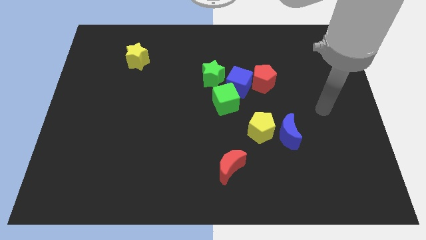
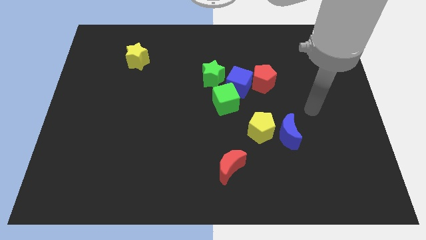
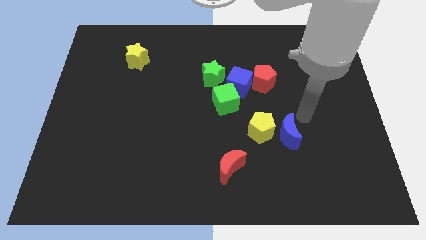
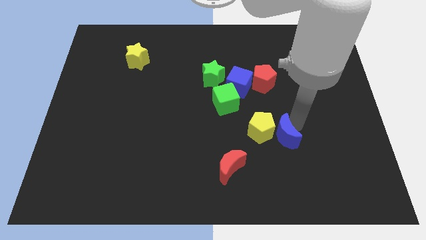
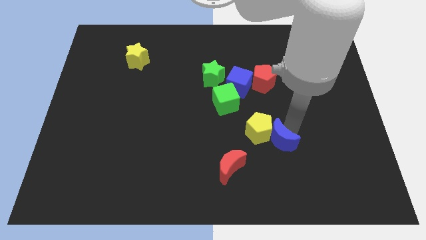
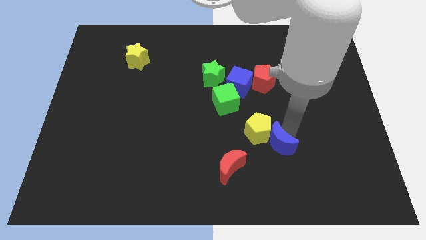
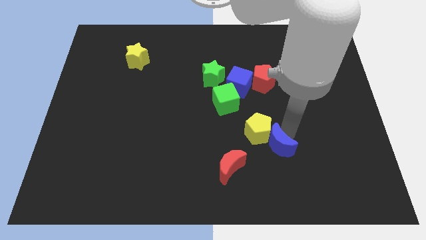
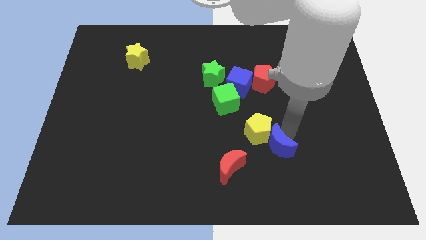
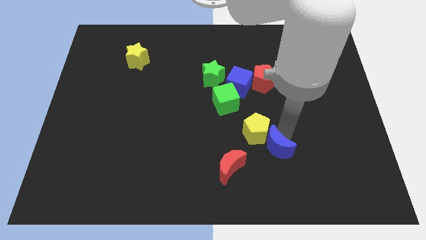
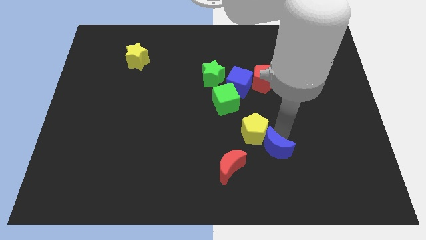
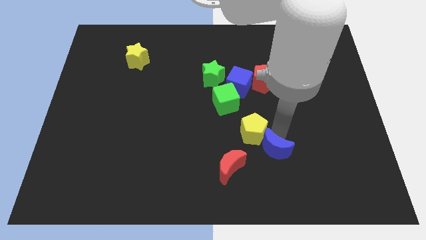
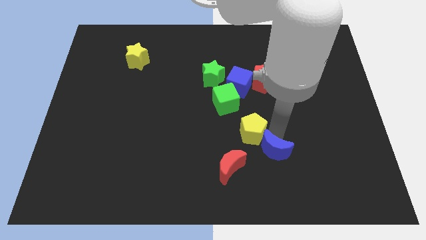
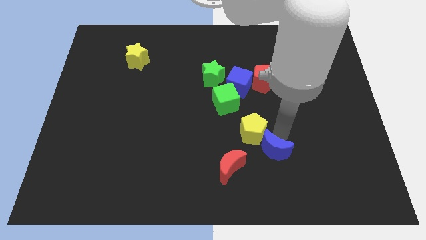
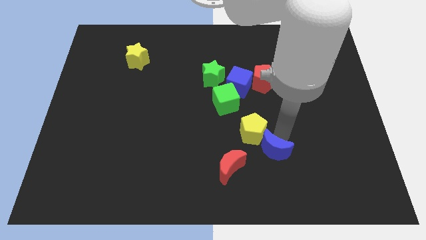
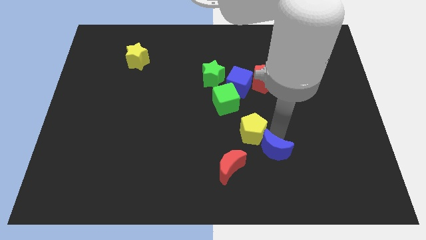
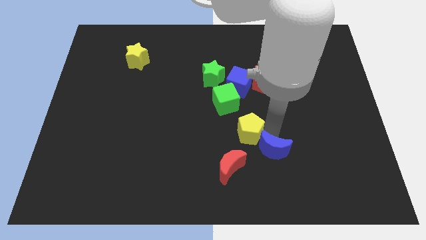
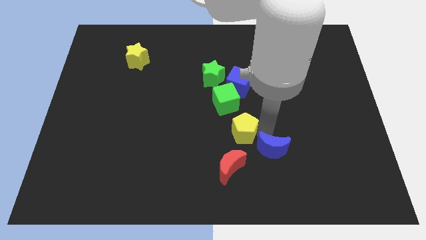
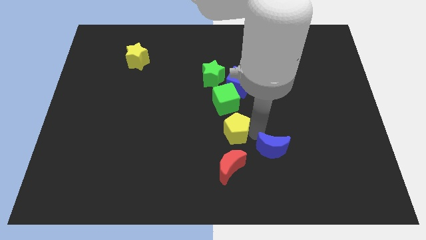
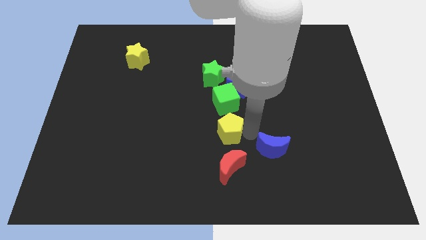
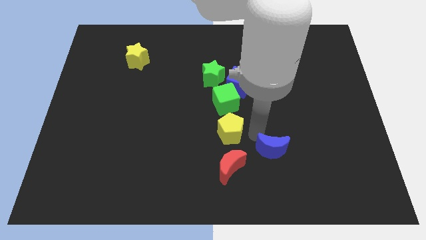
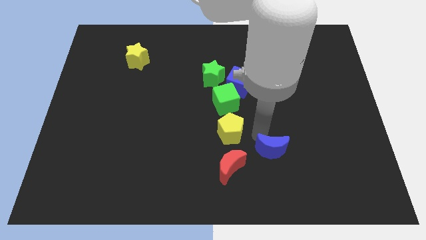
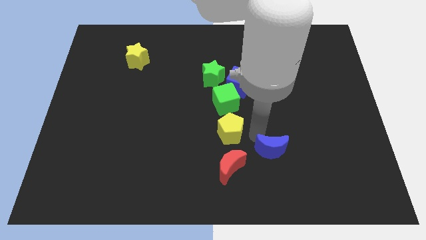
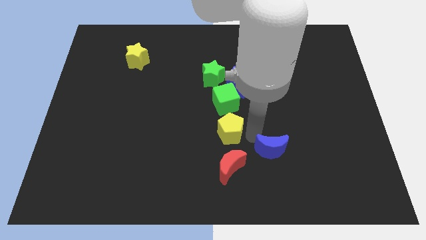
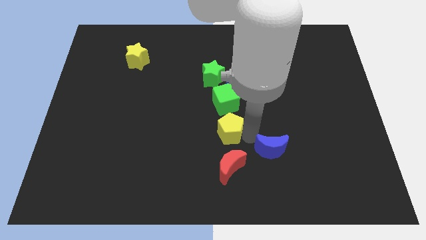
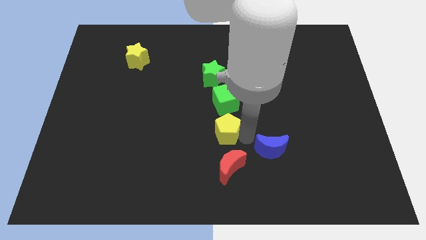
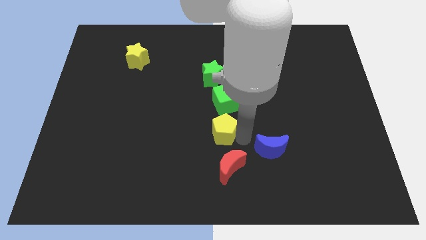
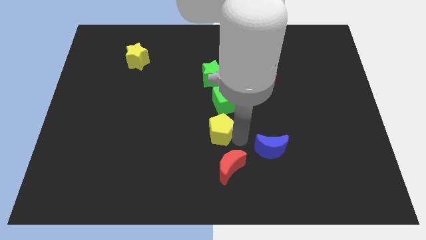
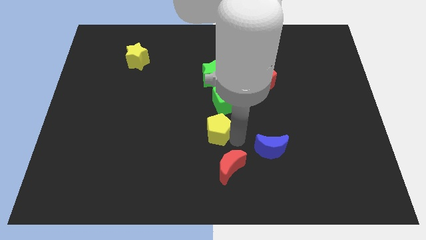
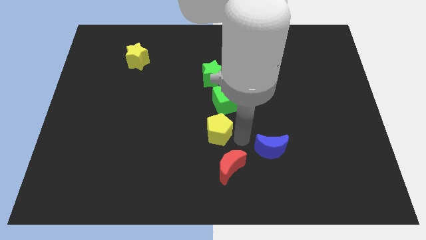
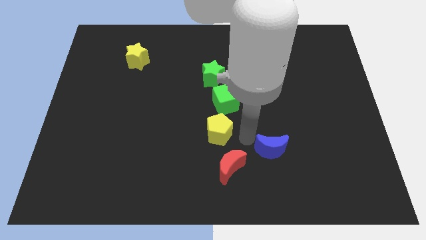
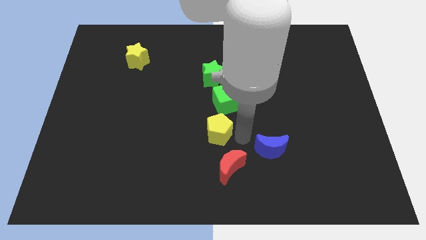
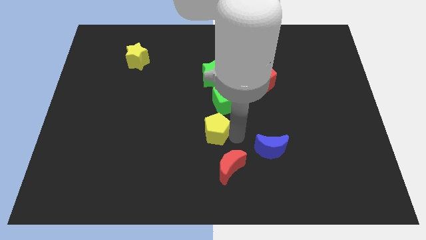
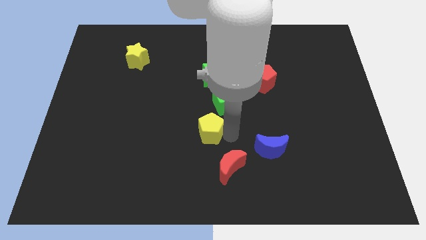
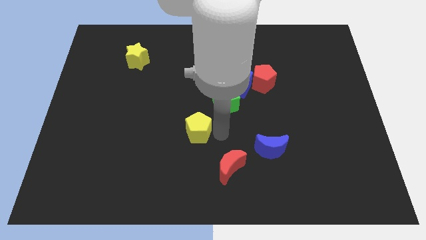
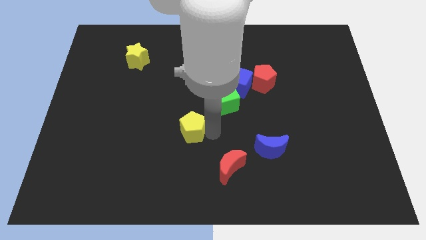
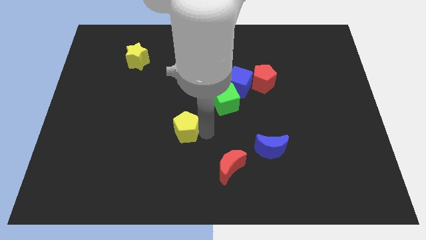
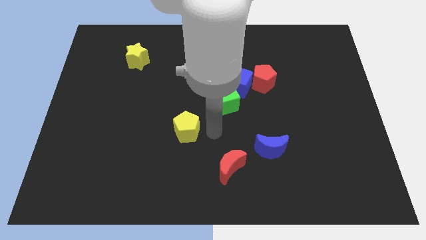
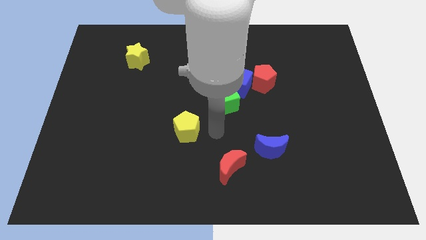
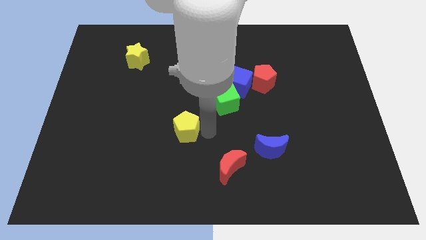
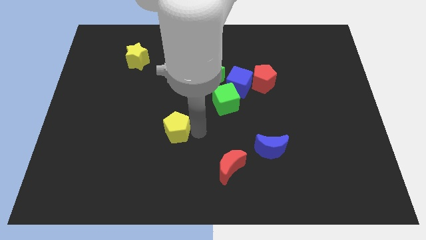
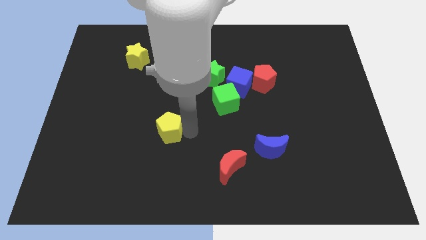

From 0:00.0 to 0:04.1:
move the yellow pentagon left

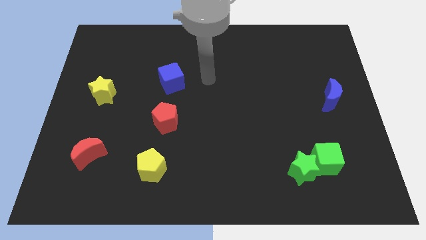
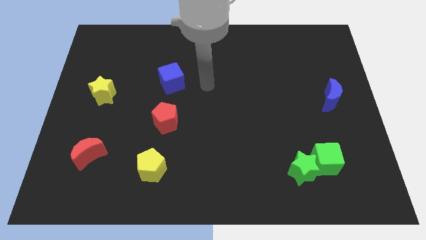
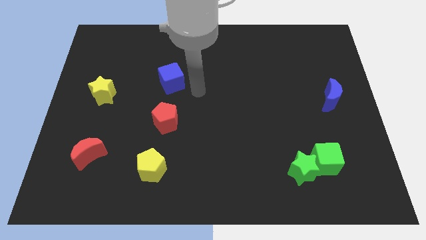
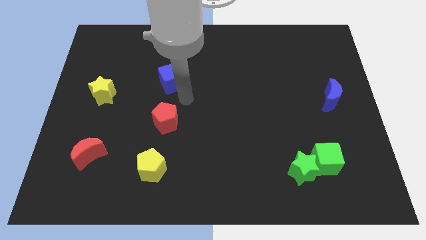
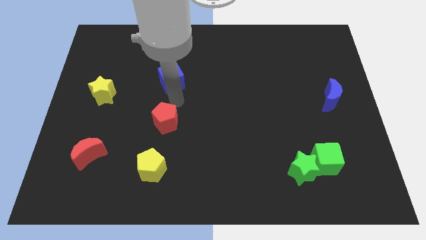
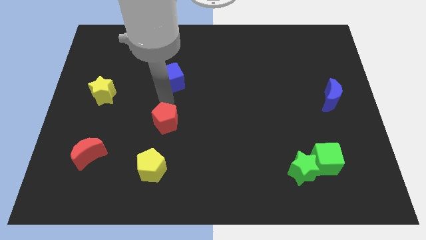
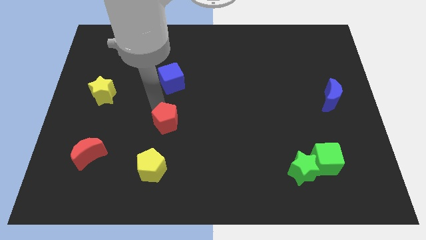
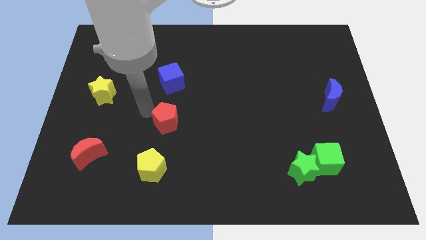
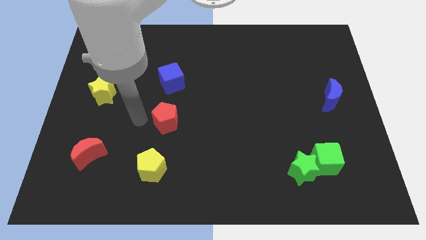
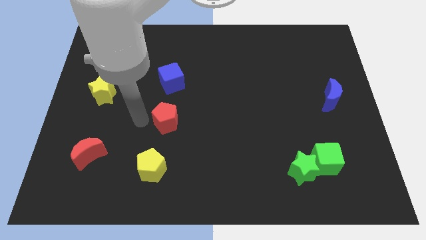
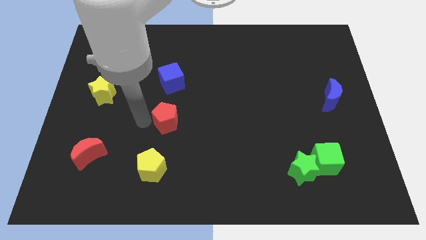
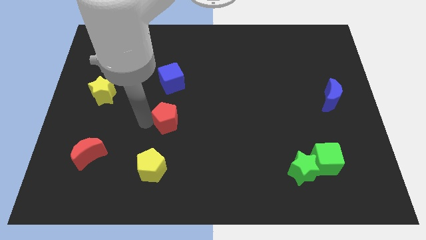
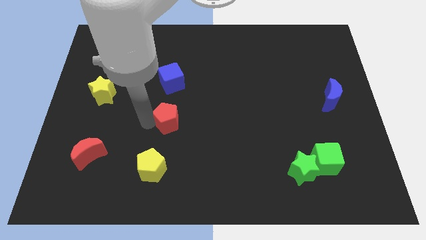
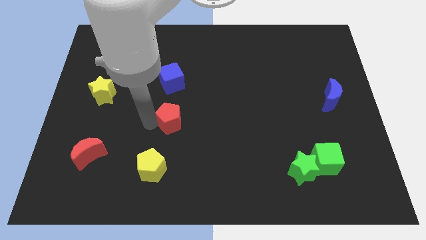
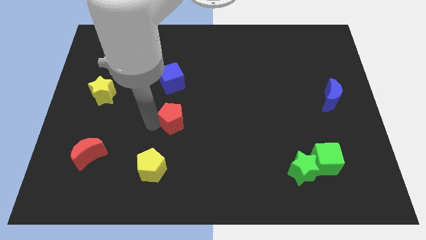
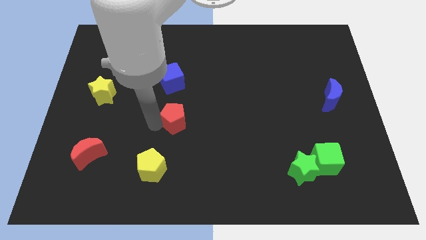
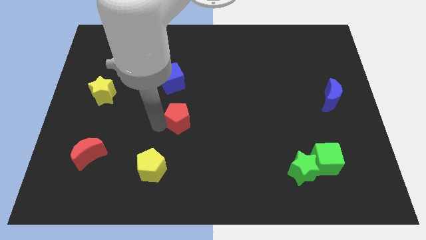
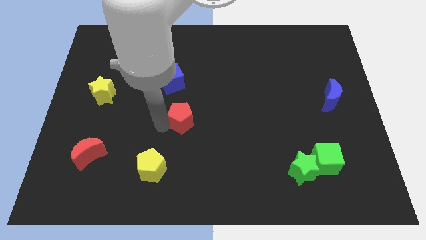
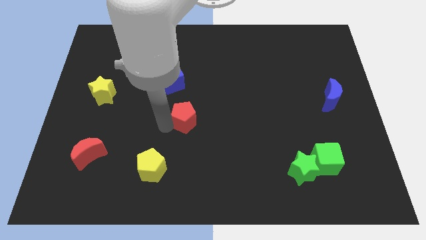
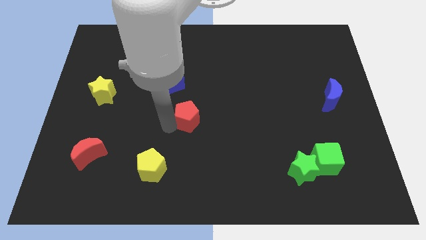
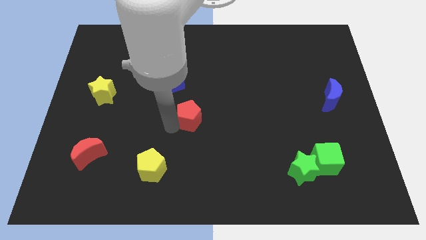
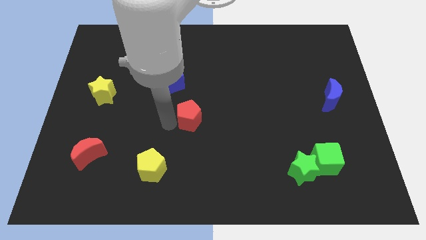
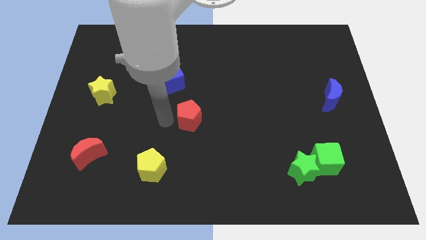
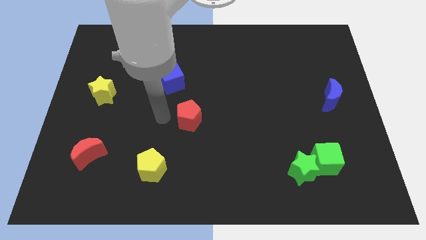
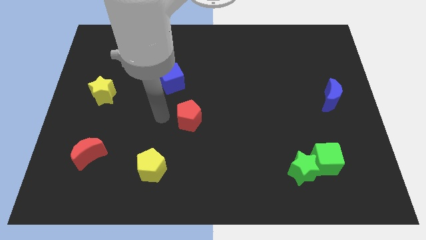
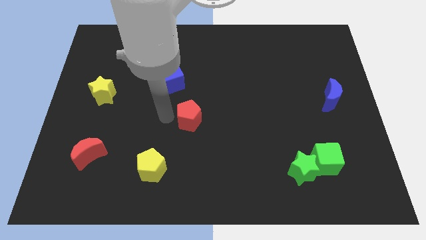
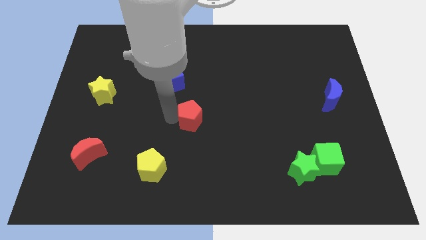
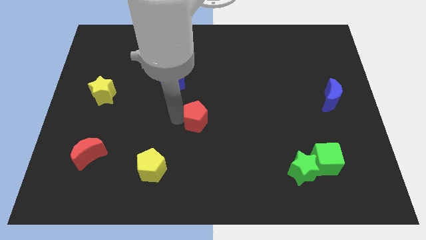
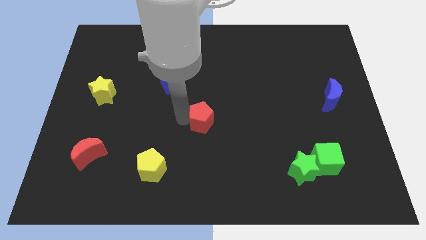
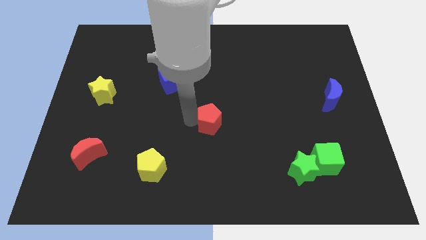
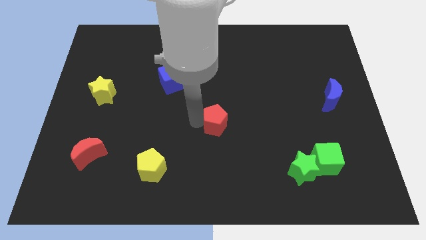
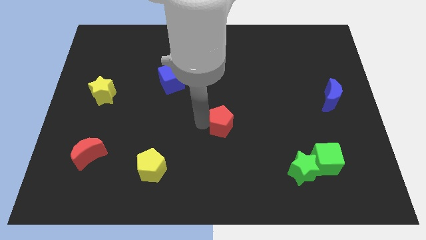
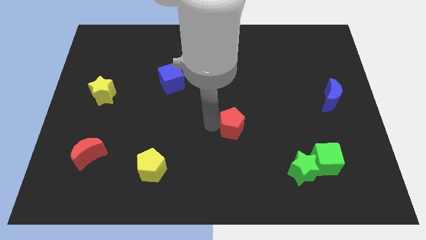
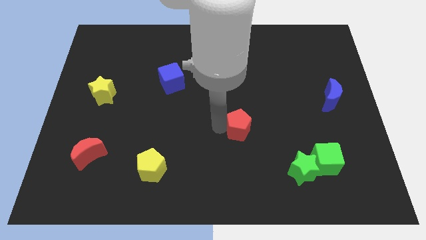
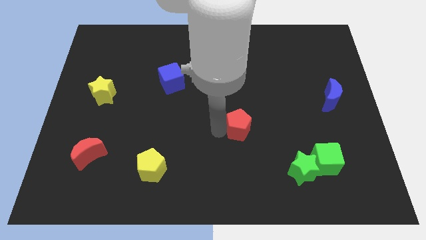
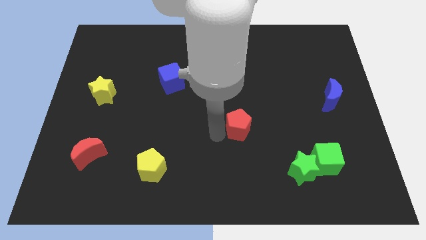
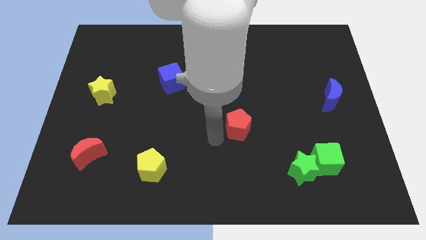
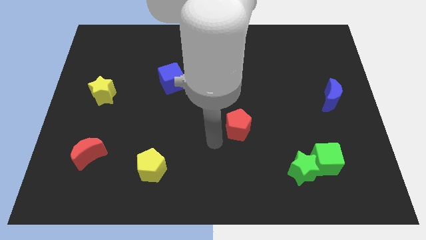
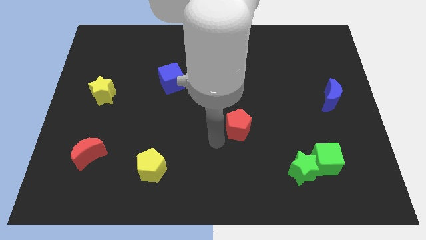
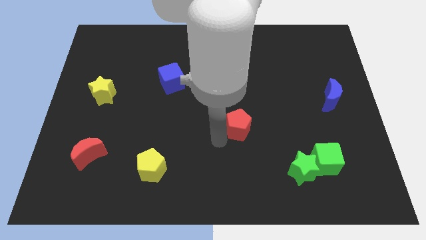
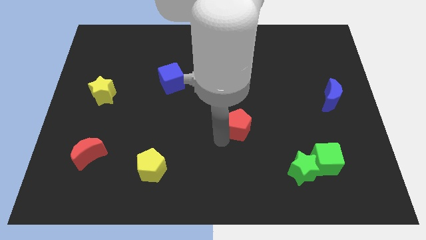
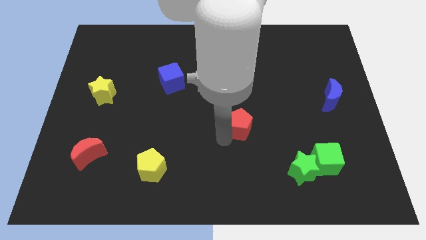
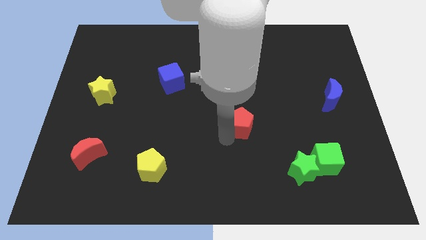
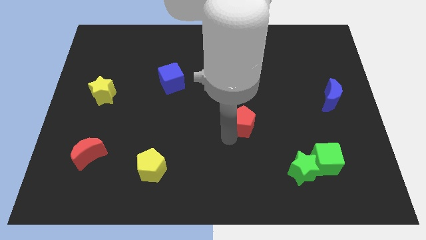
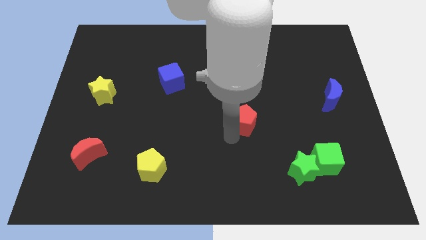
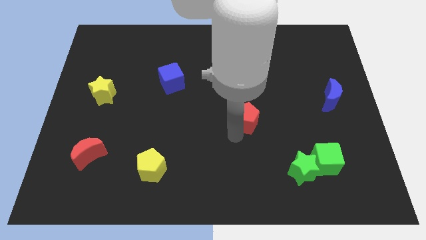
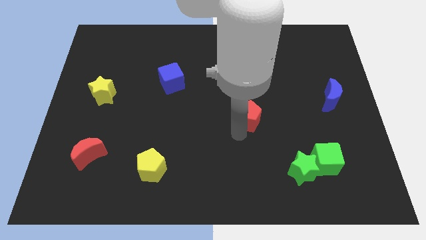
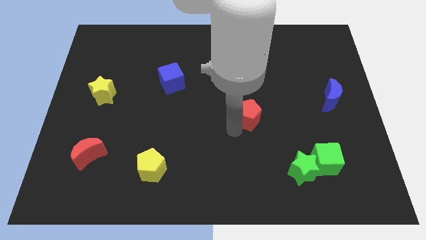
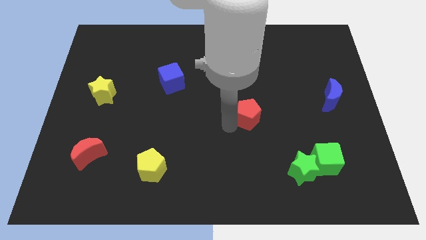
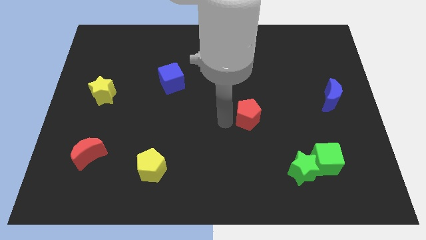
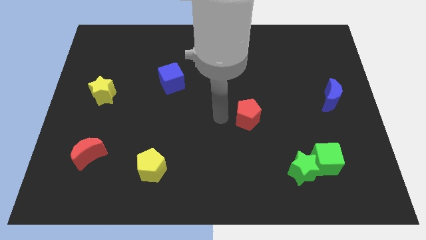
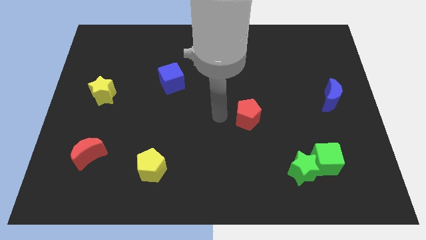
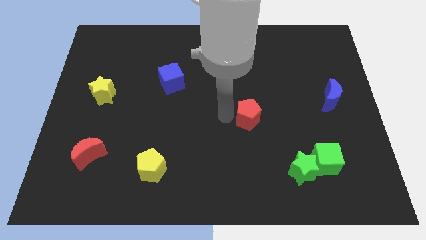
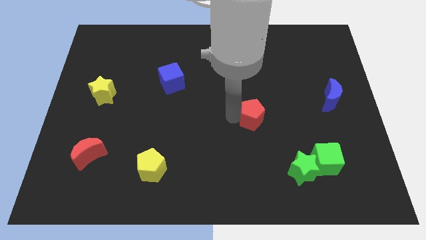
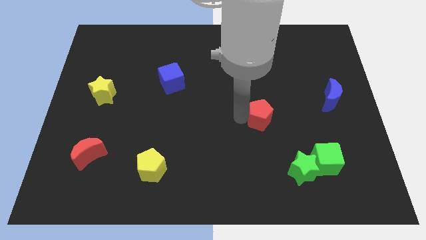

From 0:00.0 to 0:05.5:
push the red pentagon to the right
